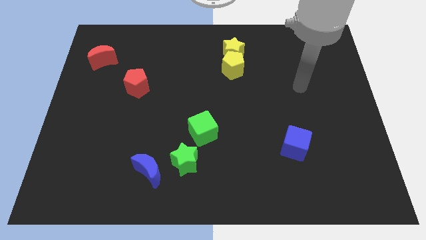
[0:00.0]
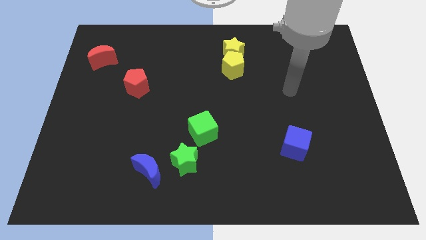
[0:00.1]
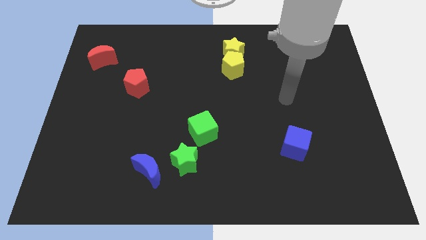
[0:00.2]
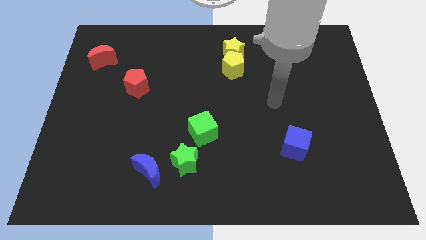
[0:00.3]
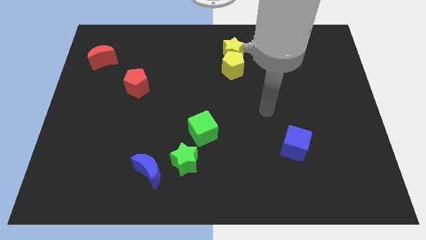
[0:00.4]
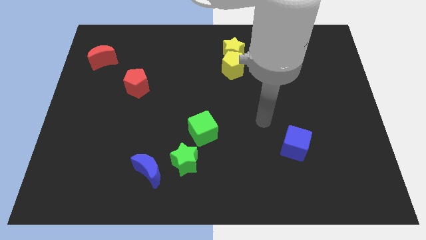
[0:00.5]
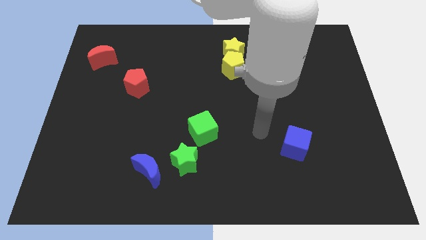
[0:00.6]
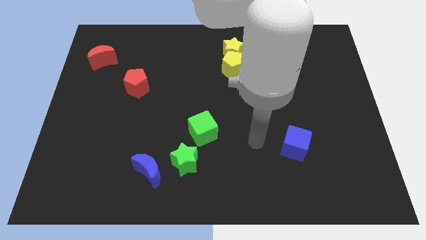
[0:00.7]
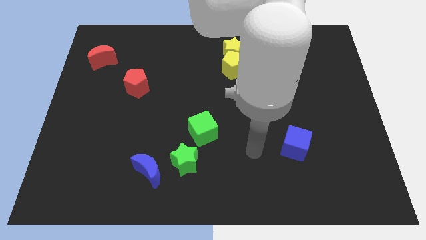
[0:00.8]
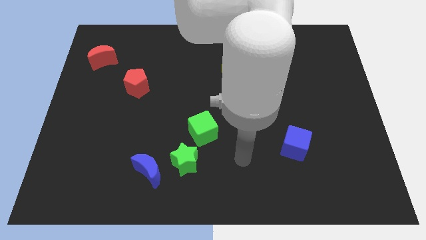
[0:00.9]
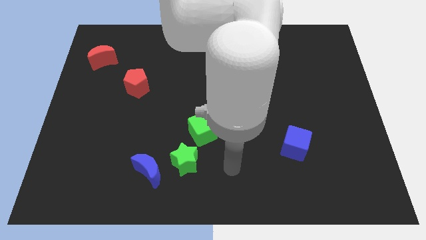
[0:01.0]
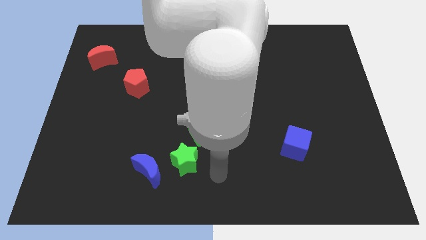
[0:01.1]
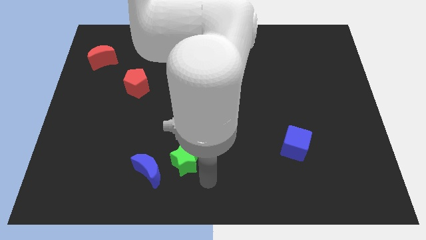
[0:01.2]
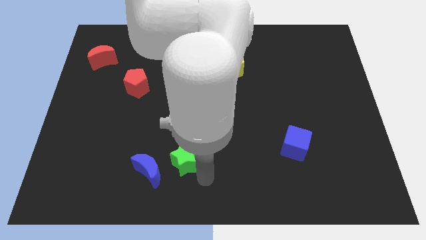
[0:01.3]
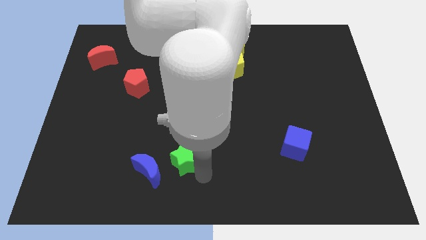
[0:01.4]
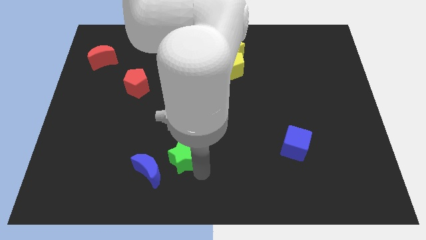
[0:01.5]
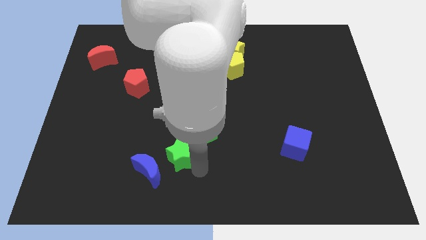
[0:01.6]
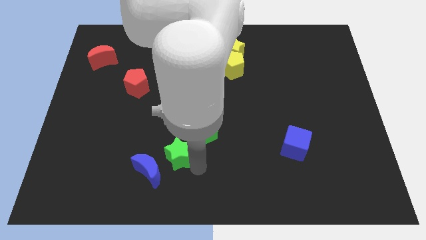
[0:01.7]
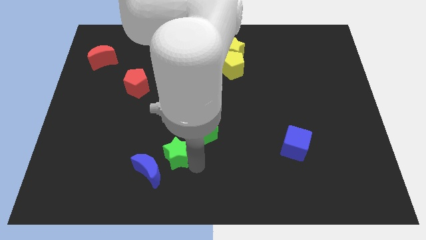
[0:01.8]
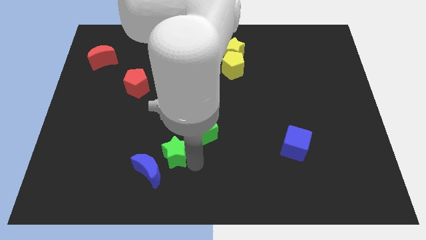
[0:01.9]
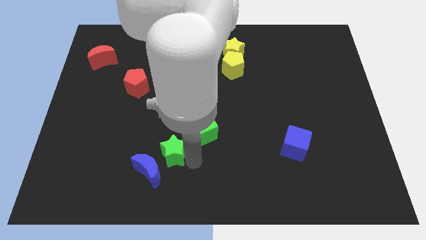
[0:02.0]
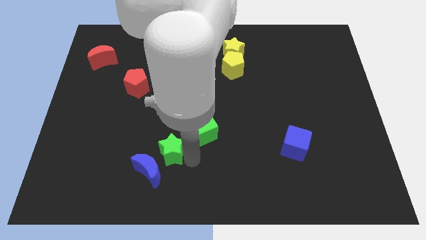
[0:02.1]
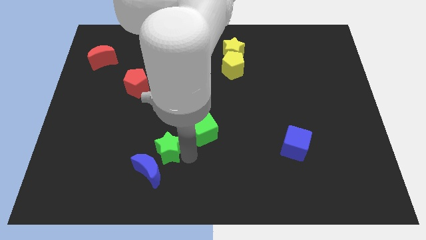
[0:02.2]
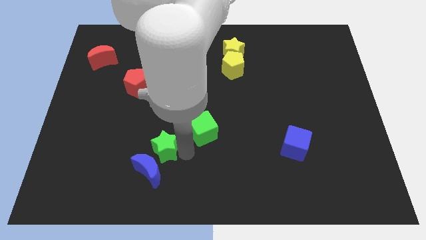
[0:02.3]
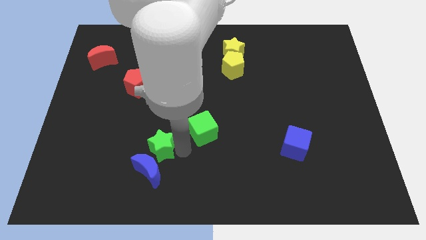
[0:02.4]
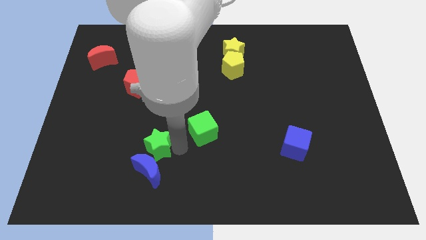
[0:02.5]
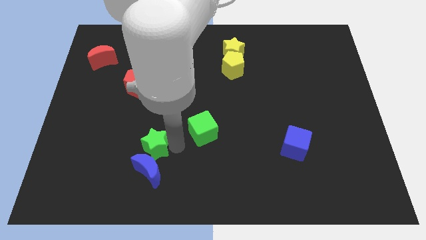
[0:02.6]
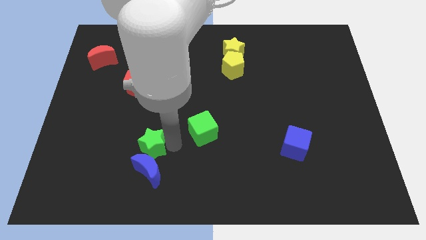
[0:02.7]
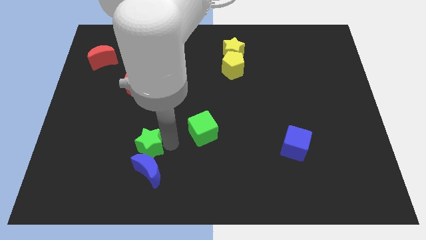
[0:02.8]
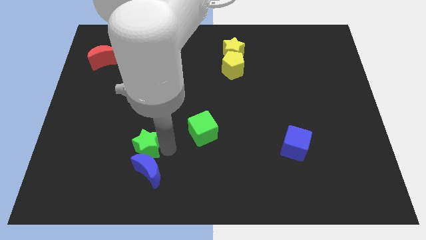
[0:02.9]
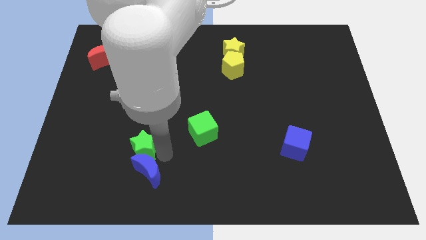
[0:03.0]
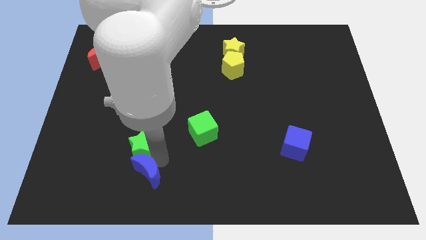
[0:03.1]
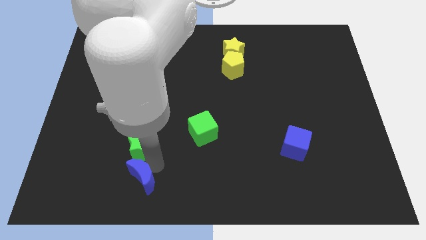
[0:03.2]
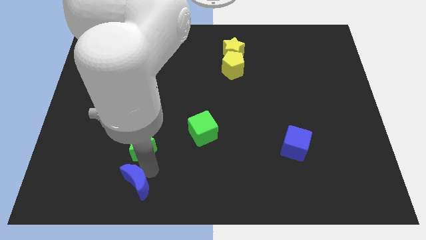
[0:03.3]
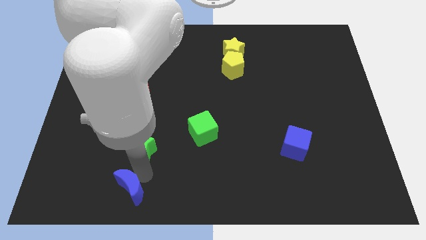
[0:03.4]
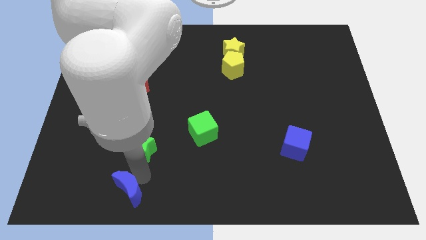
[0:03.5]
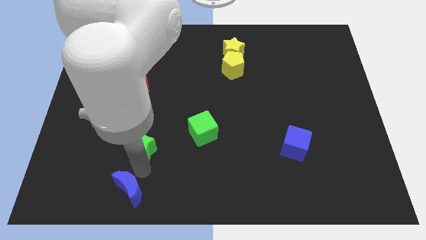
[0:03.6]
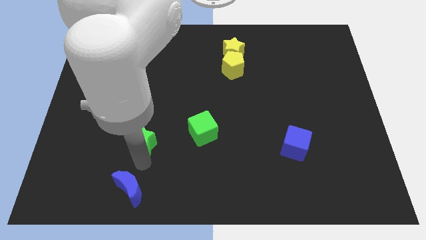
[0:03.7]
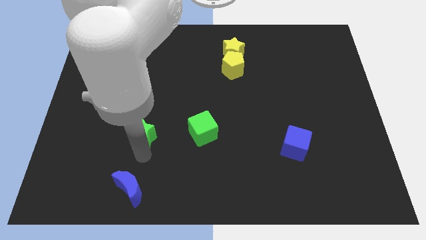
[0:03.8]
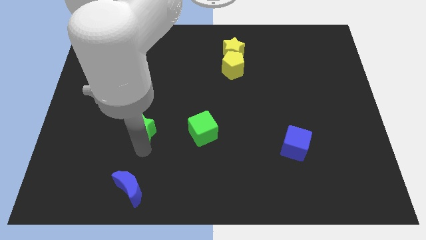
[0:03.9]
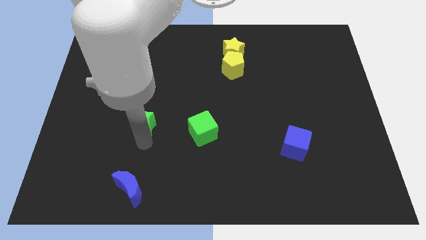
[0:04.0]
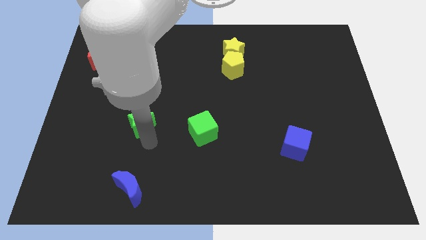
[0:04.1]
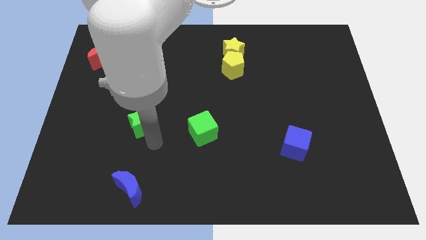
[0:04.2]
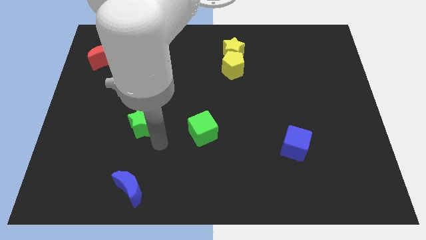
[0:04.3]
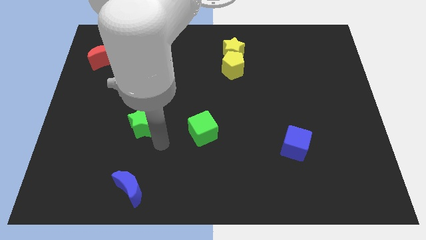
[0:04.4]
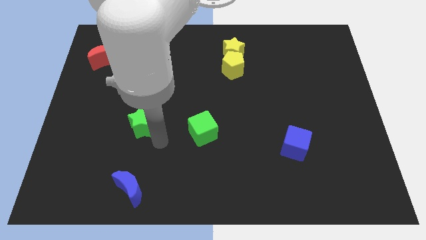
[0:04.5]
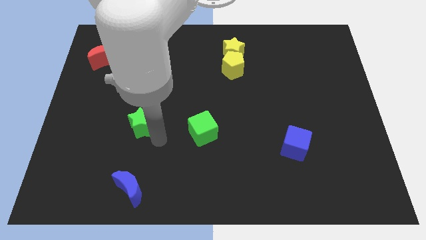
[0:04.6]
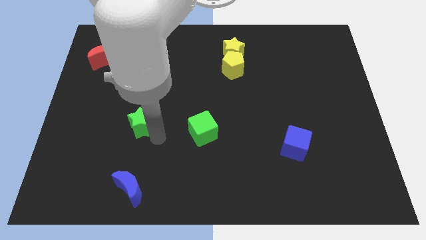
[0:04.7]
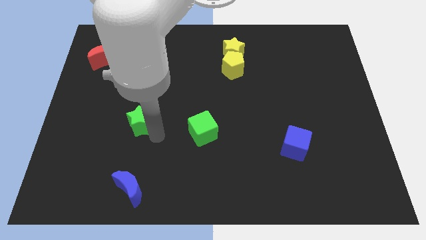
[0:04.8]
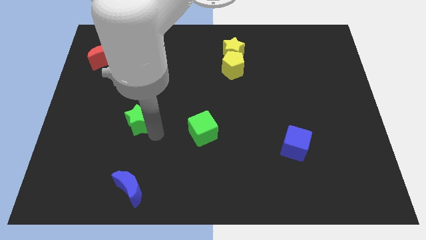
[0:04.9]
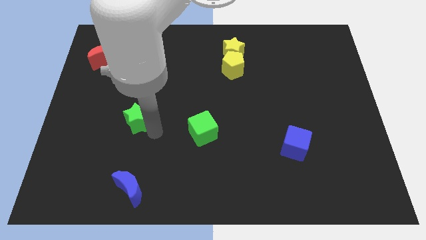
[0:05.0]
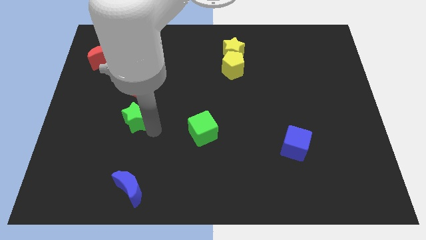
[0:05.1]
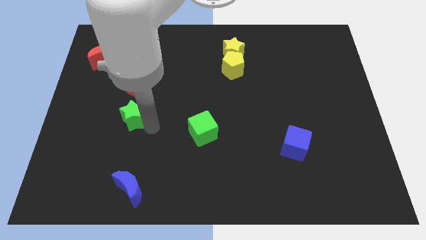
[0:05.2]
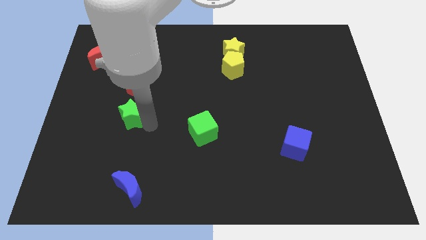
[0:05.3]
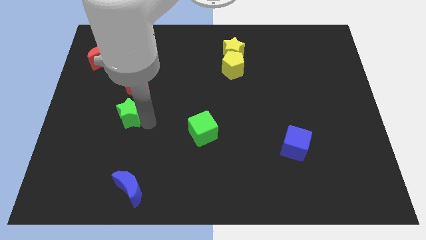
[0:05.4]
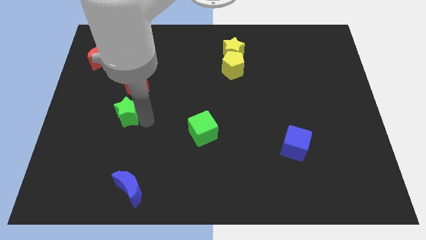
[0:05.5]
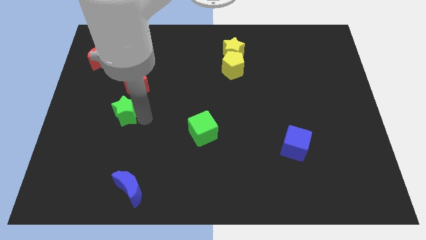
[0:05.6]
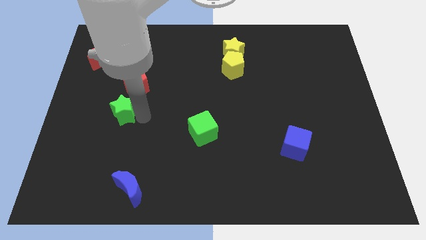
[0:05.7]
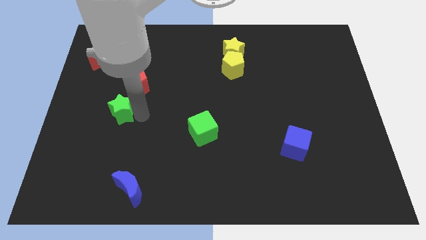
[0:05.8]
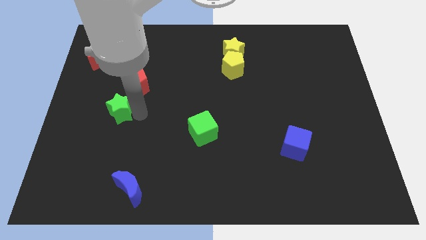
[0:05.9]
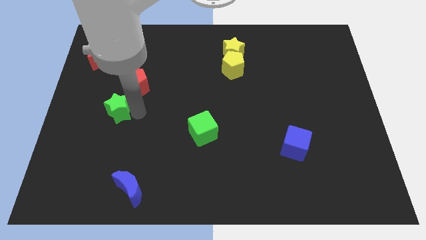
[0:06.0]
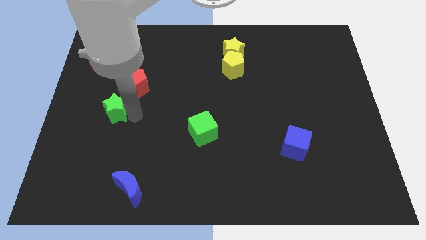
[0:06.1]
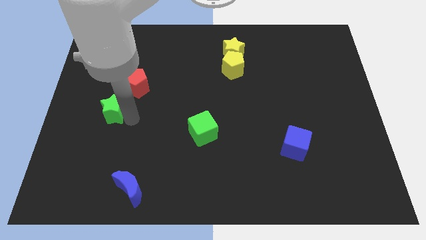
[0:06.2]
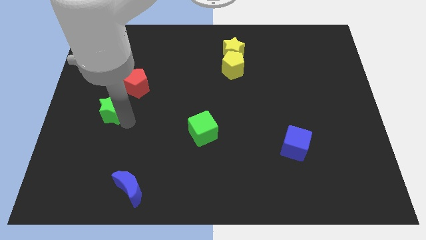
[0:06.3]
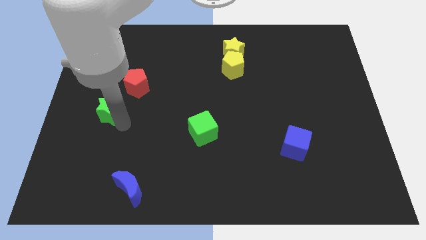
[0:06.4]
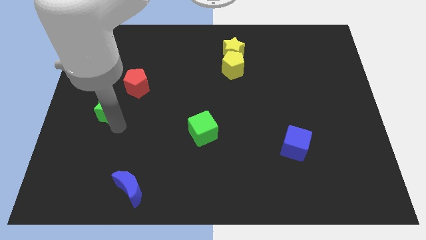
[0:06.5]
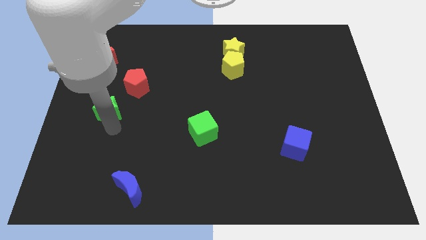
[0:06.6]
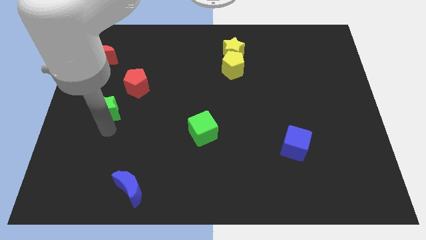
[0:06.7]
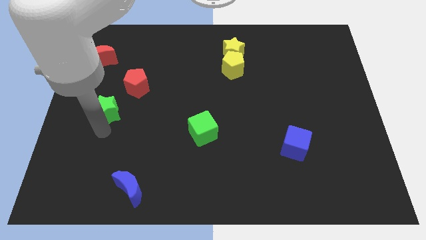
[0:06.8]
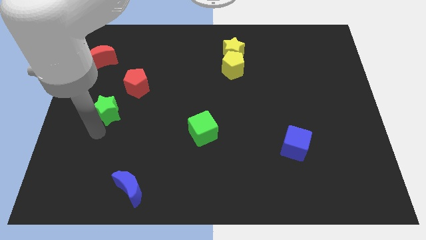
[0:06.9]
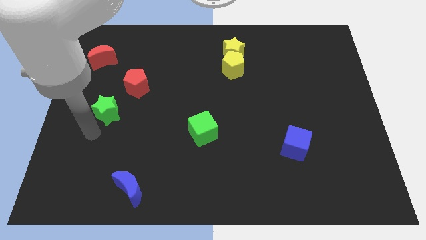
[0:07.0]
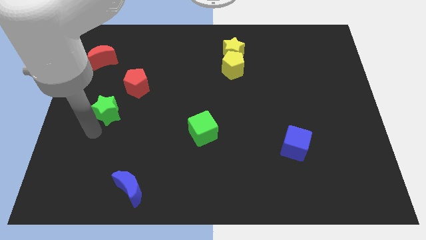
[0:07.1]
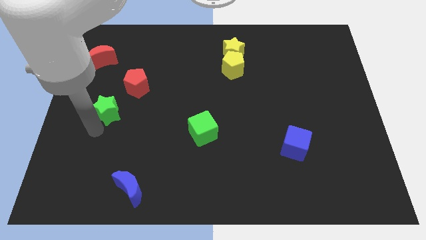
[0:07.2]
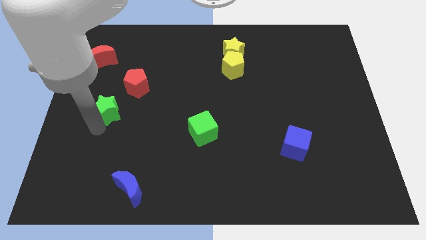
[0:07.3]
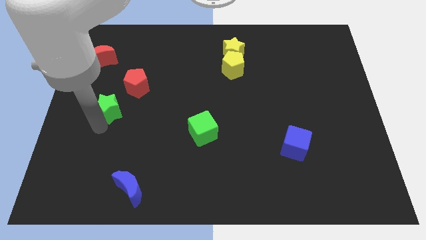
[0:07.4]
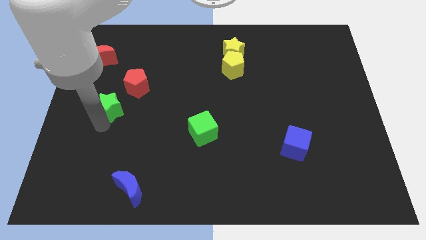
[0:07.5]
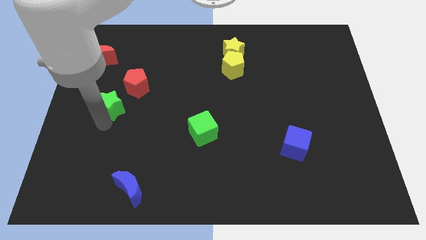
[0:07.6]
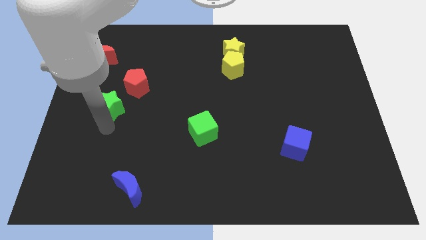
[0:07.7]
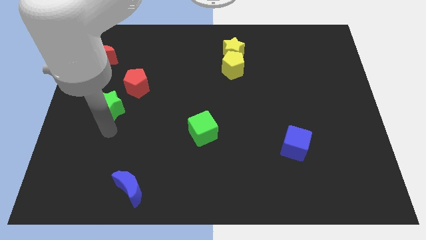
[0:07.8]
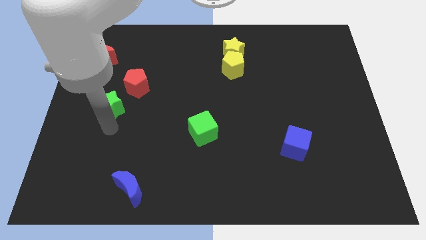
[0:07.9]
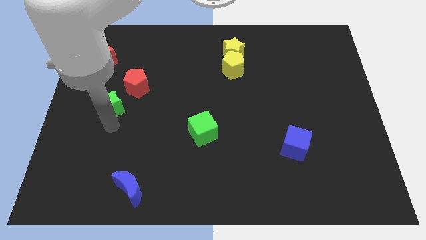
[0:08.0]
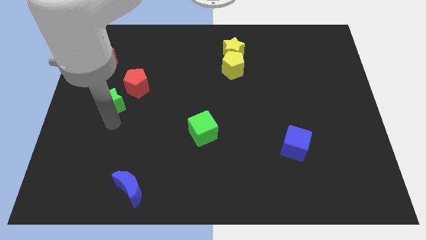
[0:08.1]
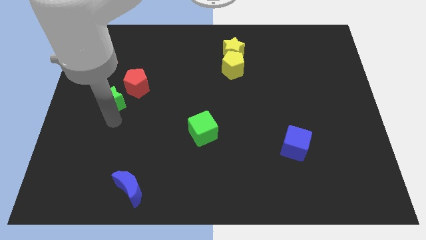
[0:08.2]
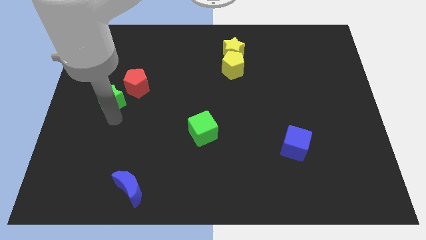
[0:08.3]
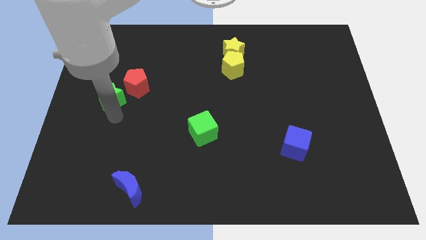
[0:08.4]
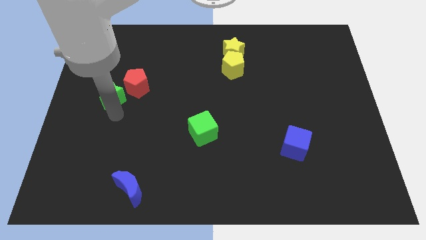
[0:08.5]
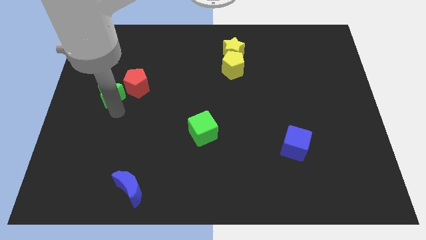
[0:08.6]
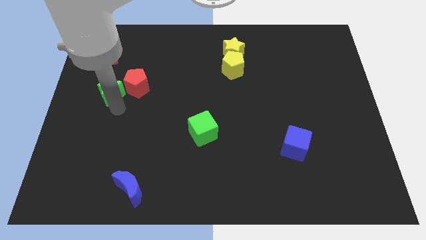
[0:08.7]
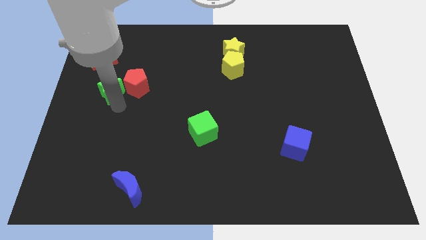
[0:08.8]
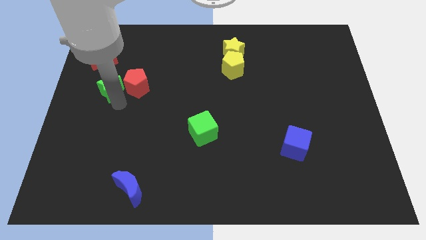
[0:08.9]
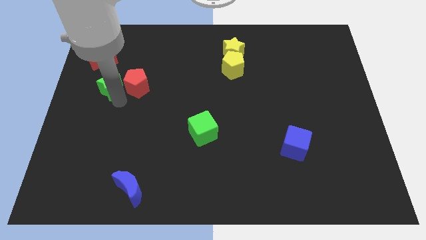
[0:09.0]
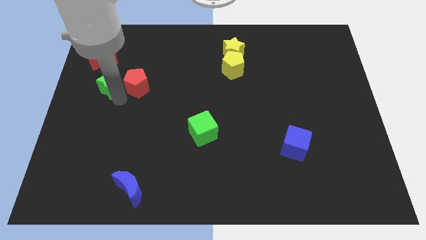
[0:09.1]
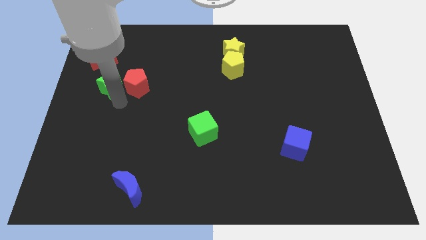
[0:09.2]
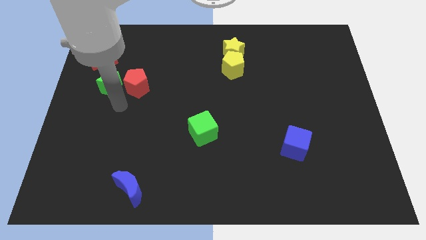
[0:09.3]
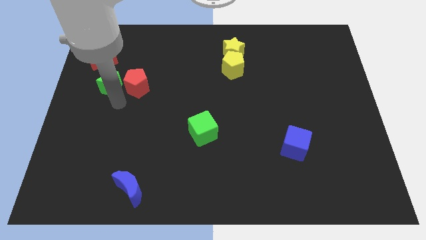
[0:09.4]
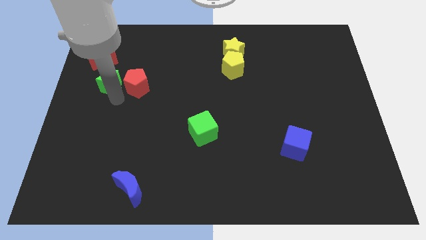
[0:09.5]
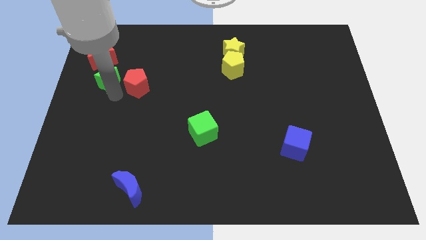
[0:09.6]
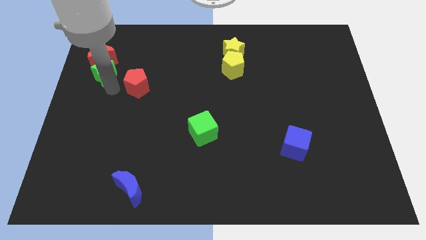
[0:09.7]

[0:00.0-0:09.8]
put the green star next to the red moon
